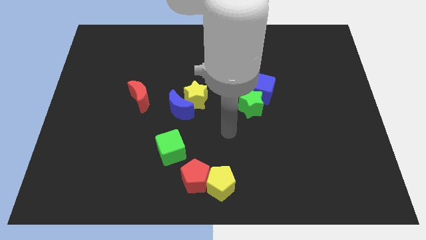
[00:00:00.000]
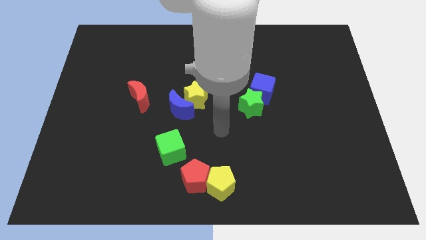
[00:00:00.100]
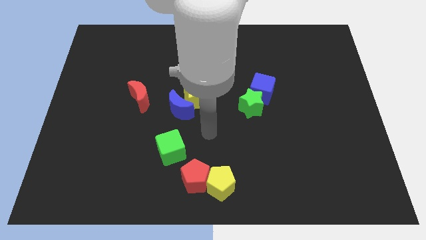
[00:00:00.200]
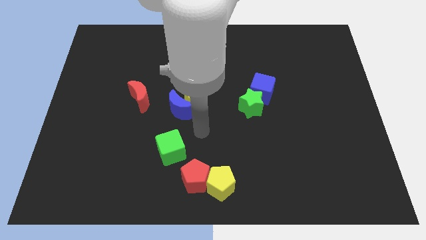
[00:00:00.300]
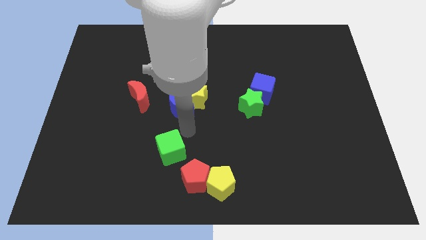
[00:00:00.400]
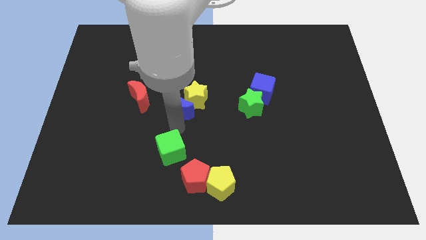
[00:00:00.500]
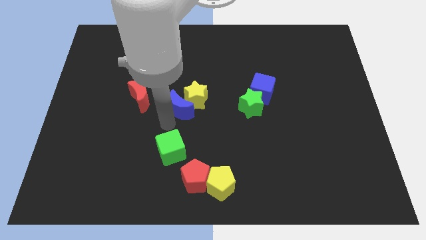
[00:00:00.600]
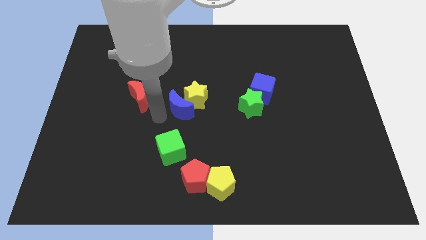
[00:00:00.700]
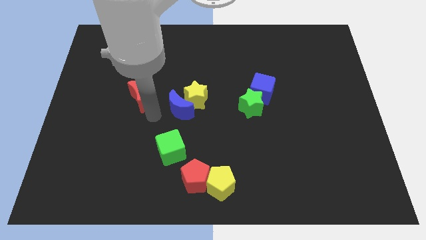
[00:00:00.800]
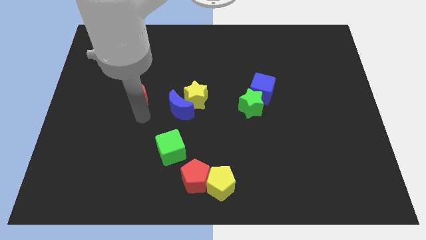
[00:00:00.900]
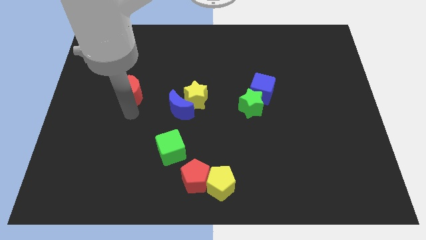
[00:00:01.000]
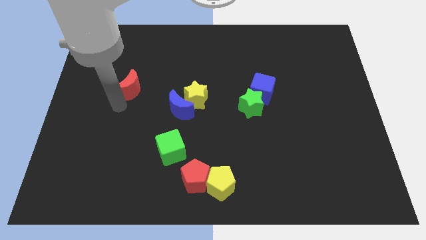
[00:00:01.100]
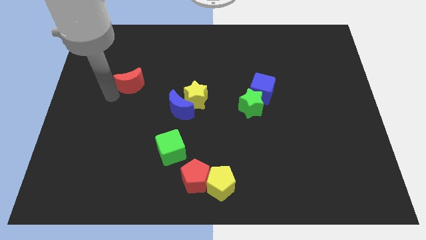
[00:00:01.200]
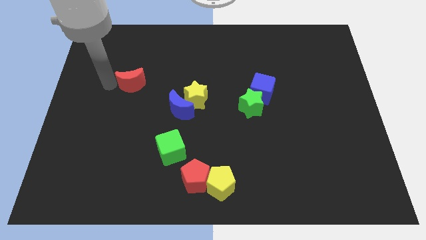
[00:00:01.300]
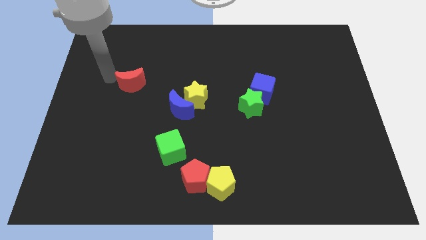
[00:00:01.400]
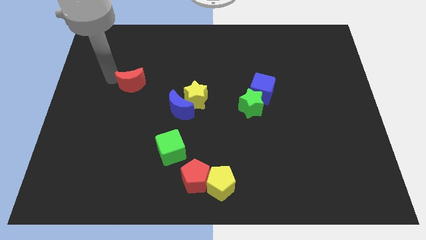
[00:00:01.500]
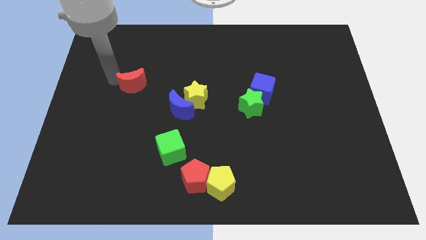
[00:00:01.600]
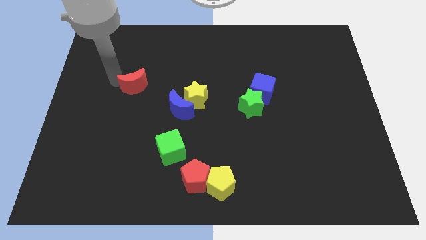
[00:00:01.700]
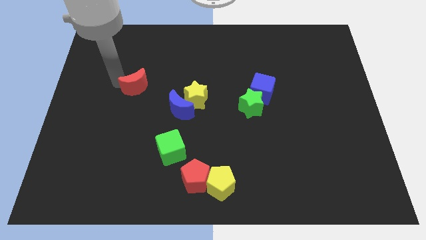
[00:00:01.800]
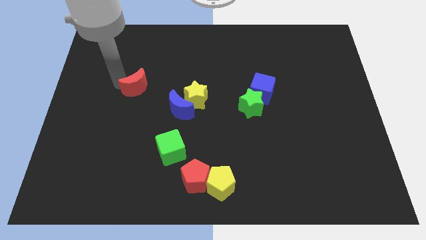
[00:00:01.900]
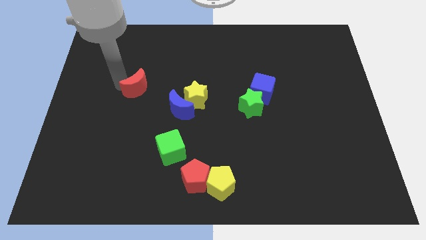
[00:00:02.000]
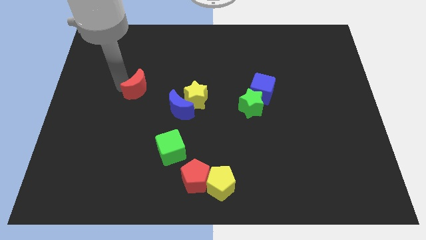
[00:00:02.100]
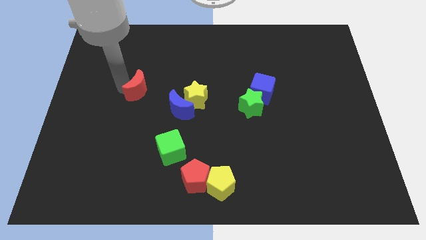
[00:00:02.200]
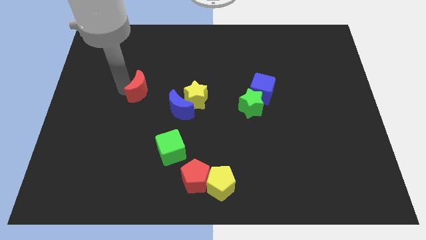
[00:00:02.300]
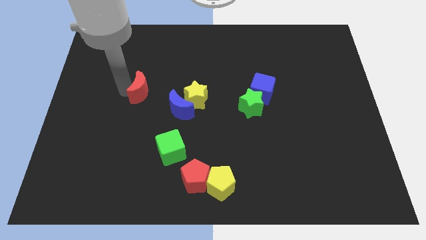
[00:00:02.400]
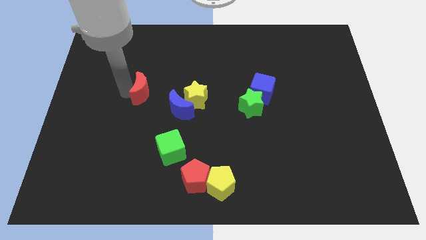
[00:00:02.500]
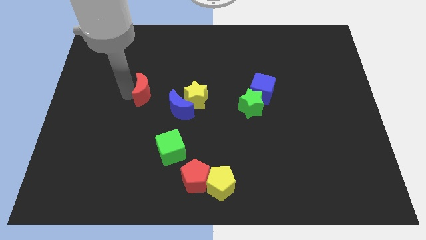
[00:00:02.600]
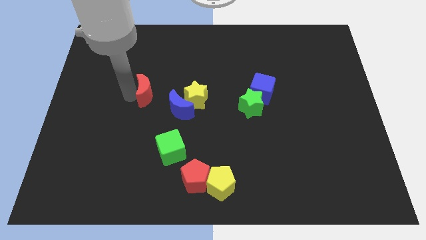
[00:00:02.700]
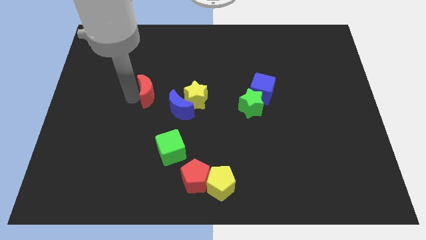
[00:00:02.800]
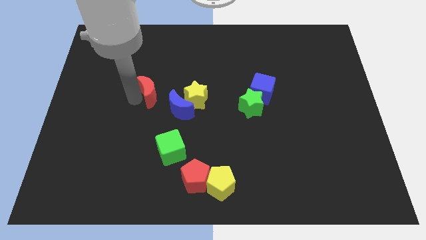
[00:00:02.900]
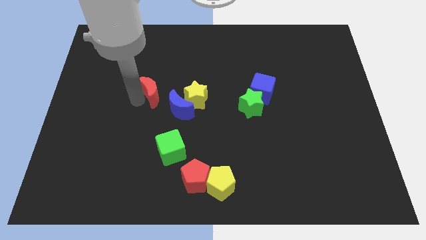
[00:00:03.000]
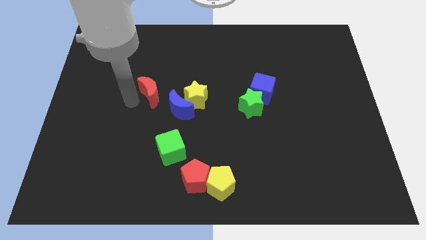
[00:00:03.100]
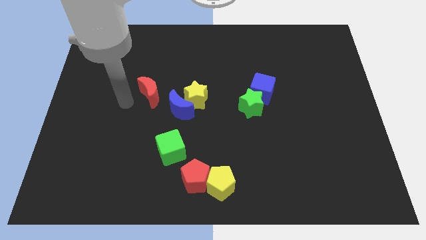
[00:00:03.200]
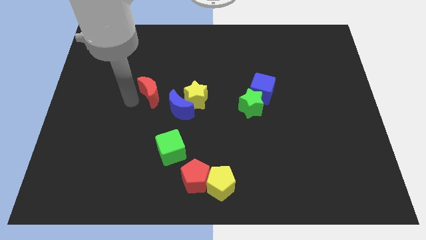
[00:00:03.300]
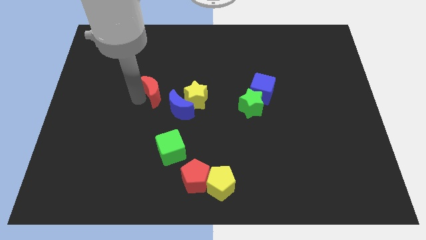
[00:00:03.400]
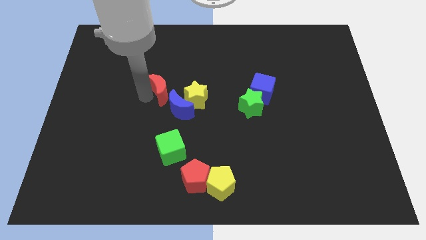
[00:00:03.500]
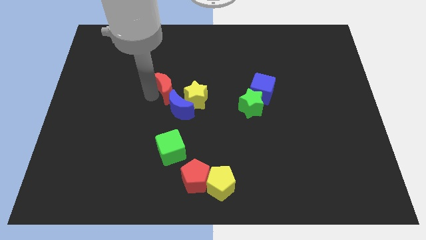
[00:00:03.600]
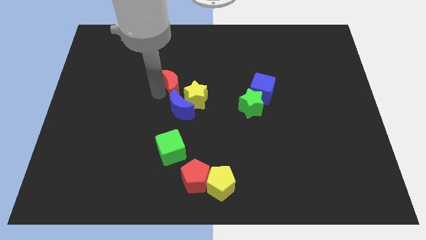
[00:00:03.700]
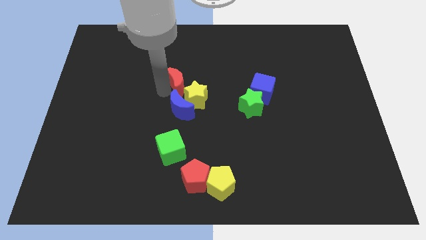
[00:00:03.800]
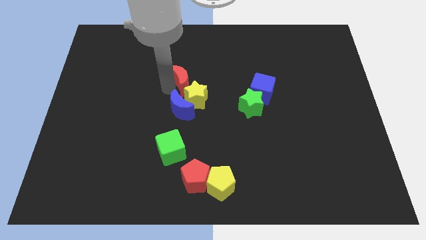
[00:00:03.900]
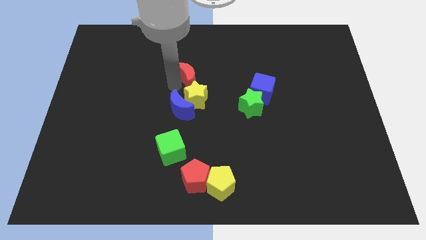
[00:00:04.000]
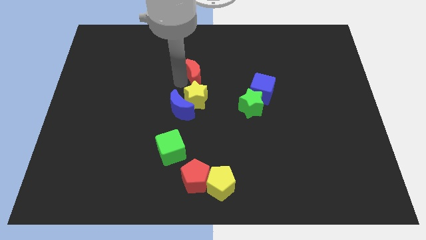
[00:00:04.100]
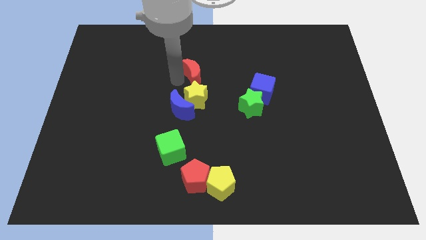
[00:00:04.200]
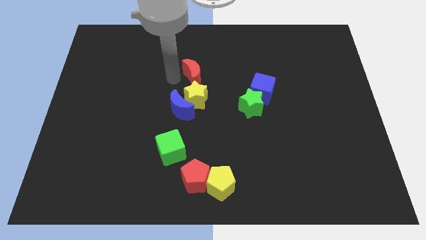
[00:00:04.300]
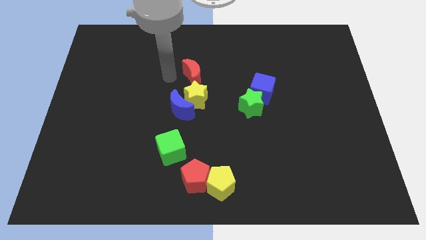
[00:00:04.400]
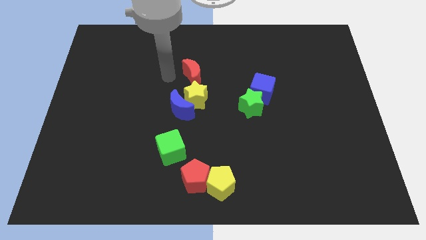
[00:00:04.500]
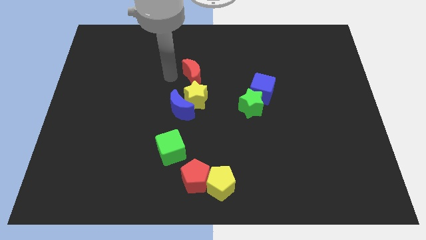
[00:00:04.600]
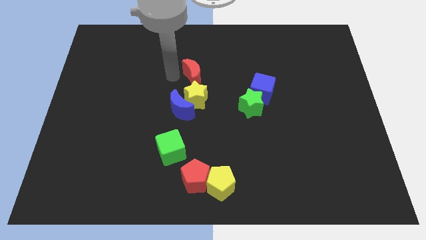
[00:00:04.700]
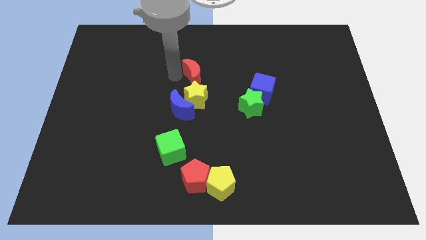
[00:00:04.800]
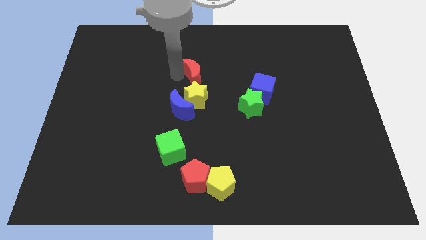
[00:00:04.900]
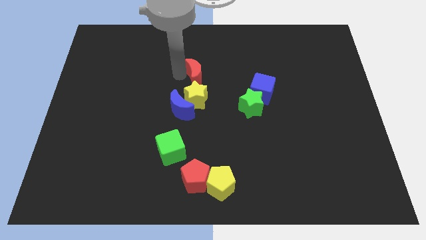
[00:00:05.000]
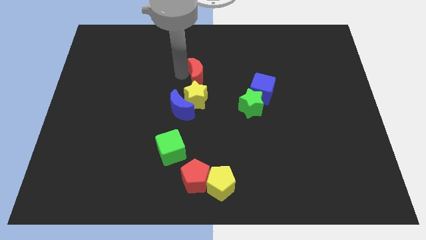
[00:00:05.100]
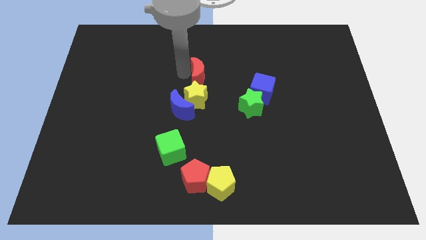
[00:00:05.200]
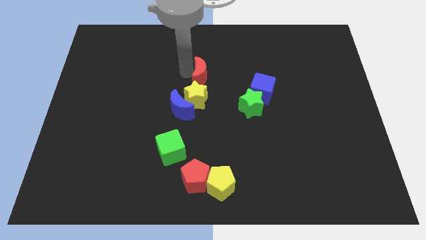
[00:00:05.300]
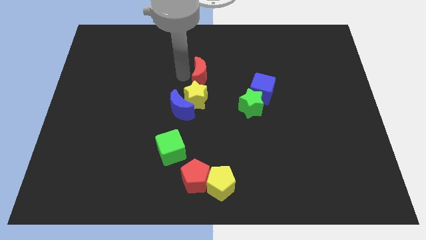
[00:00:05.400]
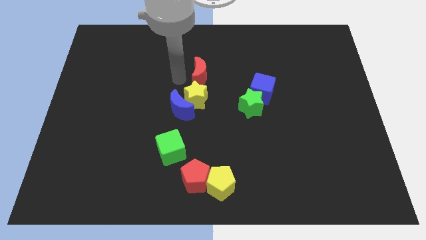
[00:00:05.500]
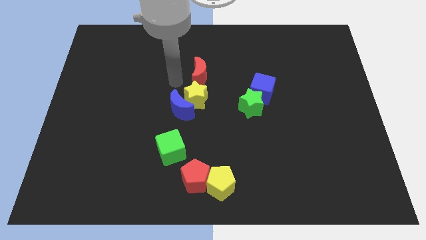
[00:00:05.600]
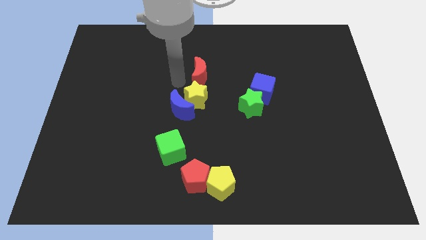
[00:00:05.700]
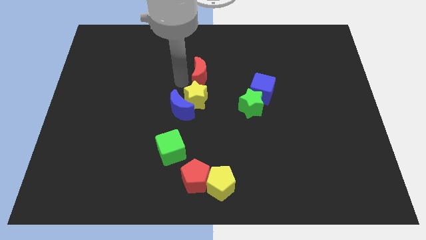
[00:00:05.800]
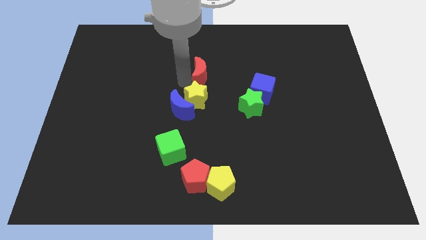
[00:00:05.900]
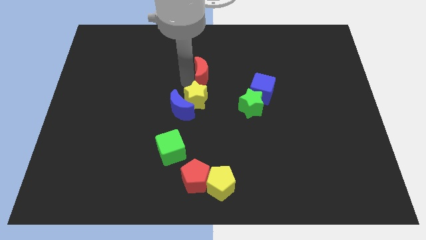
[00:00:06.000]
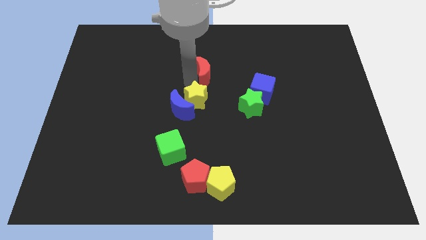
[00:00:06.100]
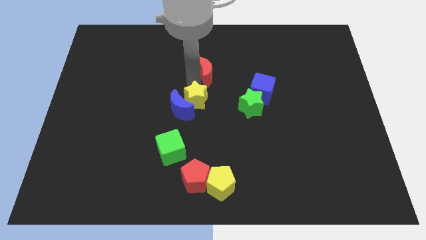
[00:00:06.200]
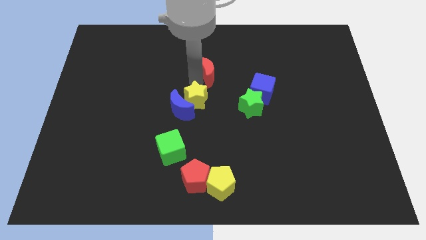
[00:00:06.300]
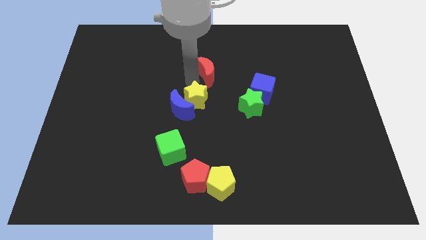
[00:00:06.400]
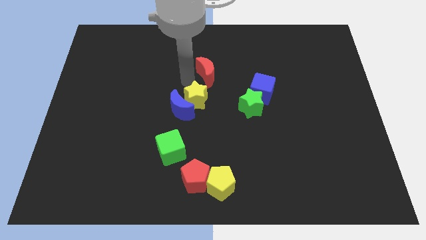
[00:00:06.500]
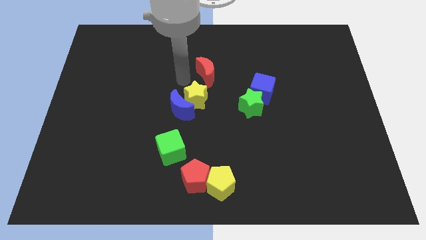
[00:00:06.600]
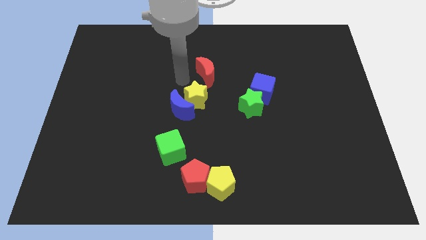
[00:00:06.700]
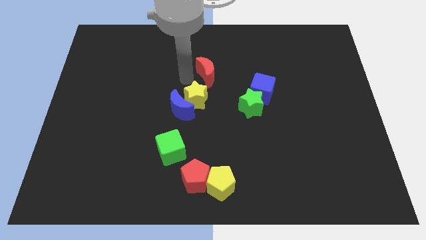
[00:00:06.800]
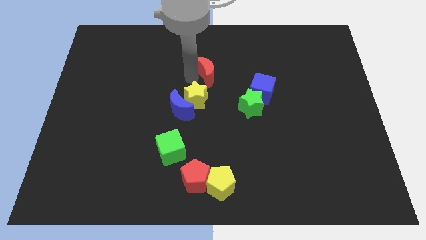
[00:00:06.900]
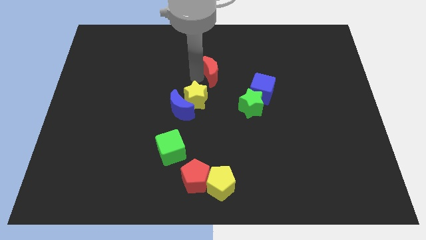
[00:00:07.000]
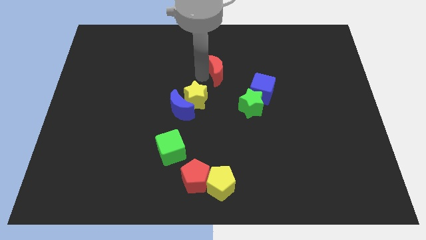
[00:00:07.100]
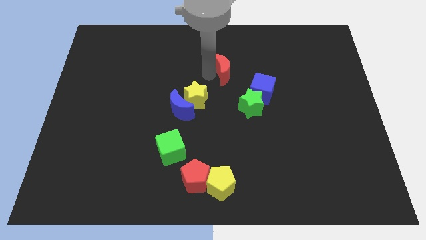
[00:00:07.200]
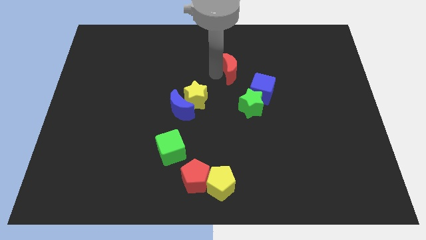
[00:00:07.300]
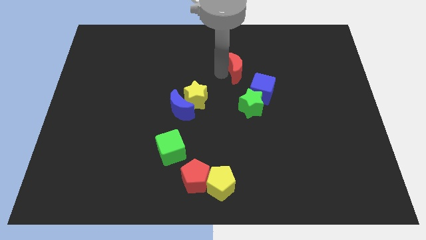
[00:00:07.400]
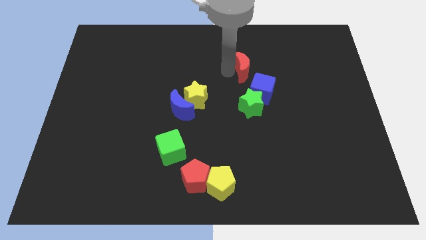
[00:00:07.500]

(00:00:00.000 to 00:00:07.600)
slide the red moon to the right

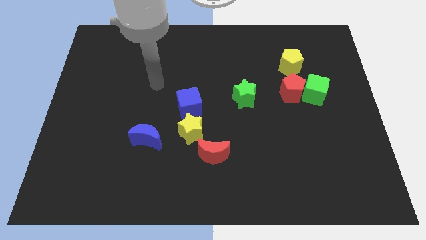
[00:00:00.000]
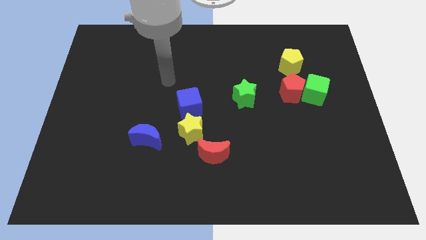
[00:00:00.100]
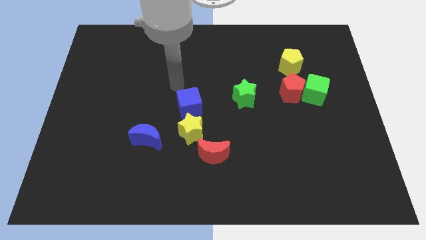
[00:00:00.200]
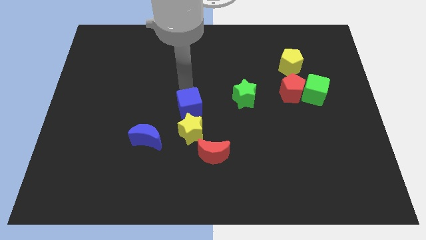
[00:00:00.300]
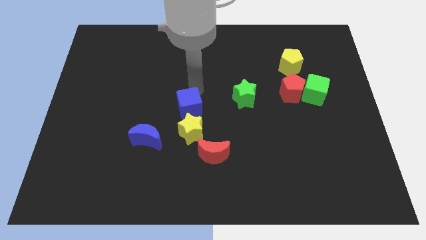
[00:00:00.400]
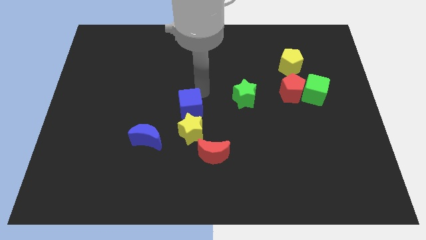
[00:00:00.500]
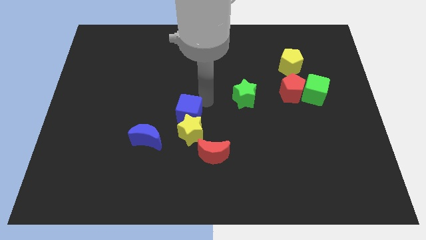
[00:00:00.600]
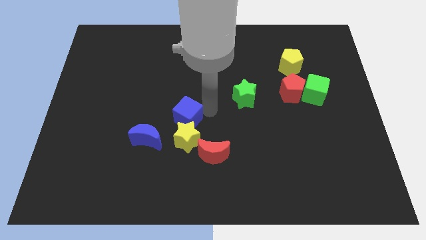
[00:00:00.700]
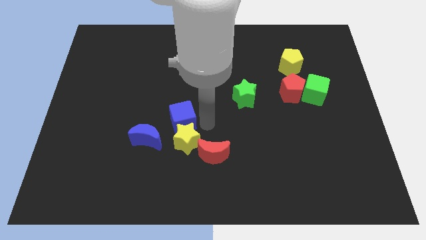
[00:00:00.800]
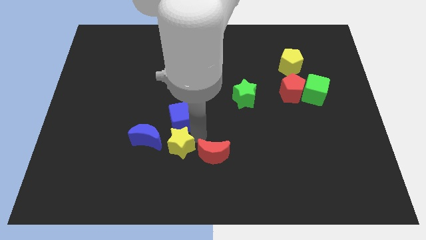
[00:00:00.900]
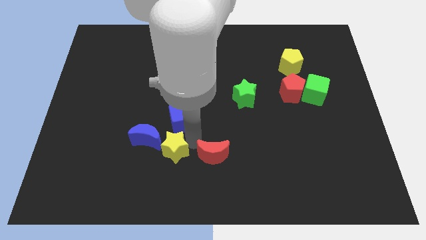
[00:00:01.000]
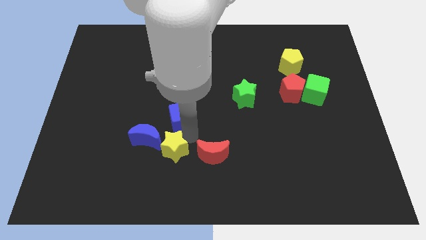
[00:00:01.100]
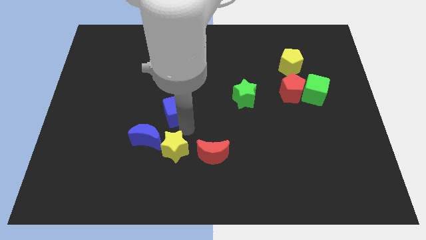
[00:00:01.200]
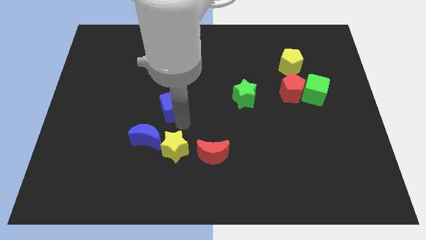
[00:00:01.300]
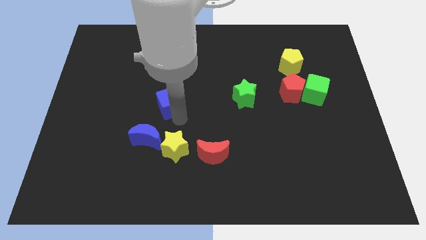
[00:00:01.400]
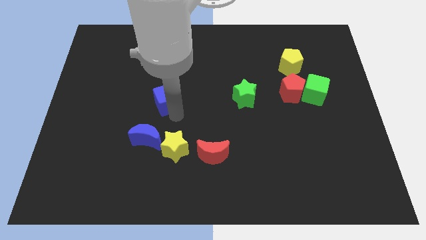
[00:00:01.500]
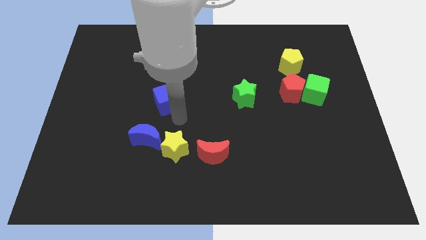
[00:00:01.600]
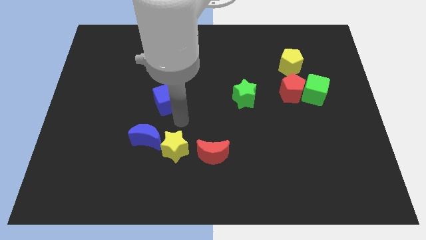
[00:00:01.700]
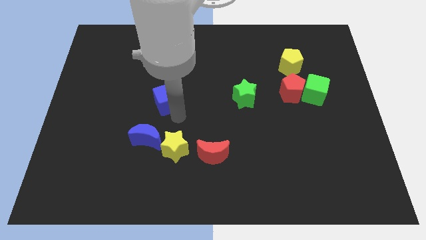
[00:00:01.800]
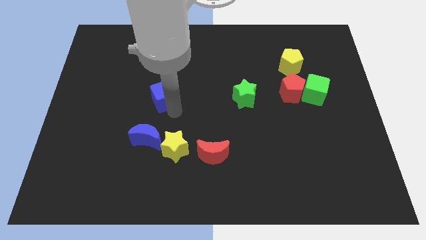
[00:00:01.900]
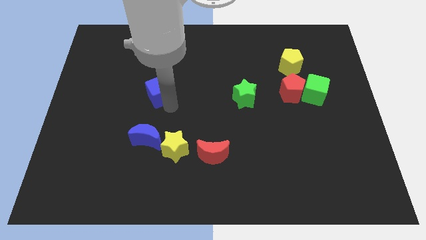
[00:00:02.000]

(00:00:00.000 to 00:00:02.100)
slide the blue cube diagonally up and to the left a little
